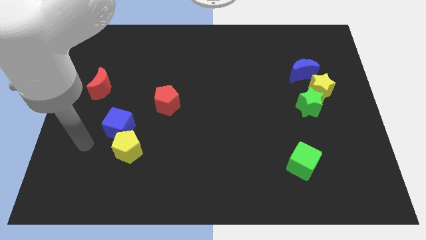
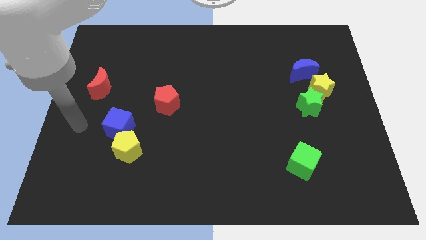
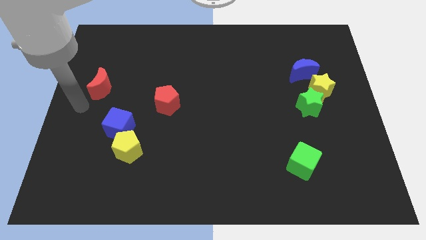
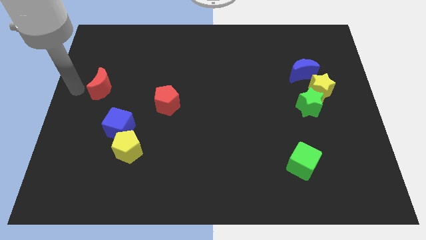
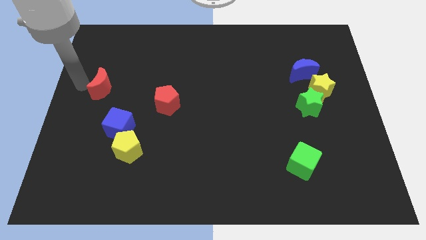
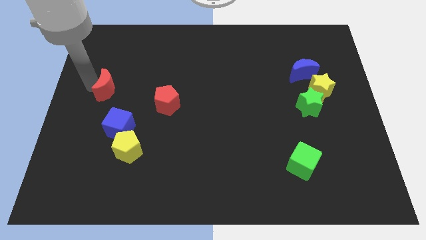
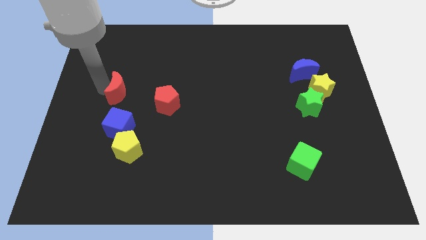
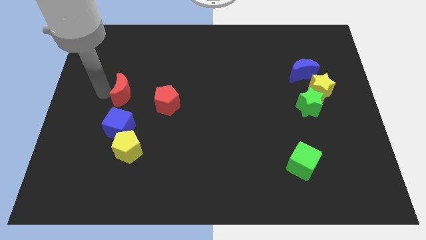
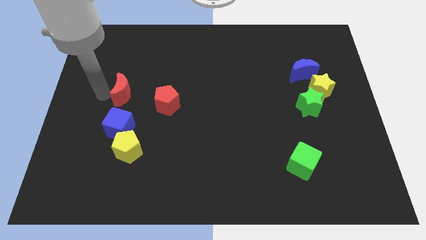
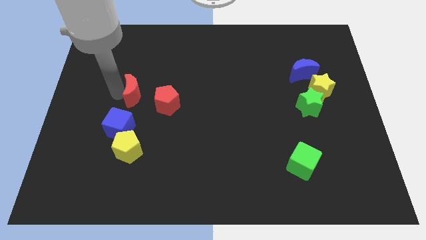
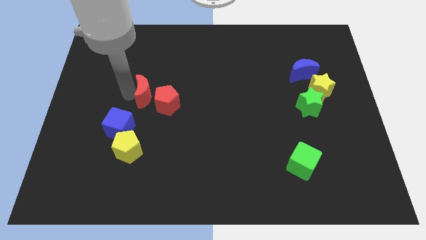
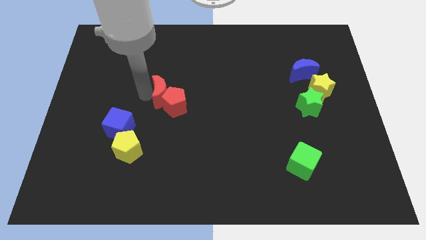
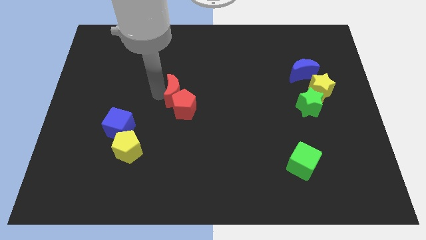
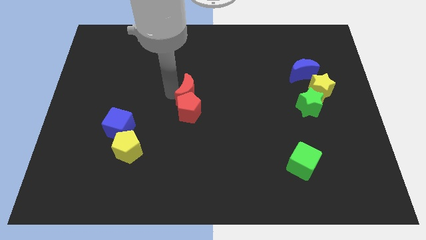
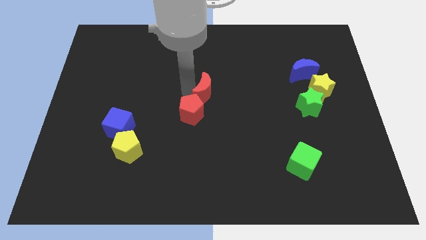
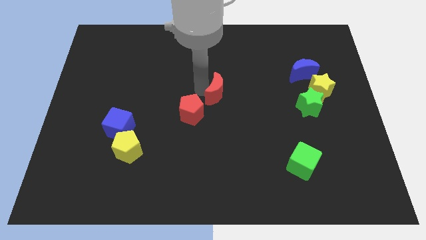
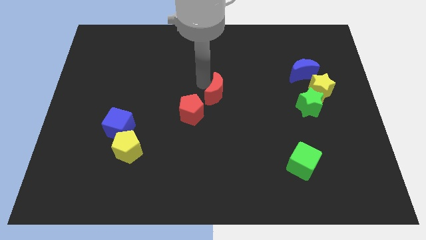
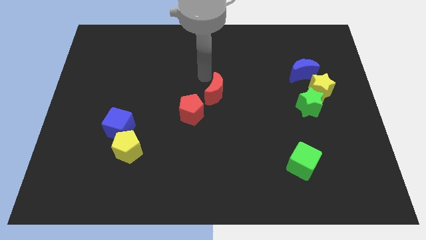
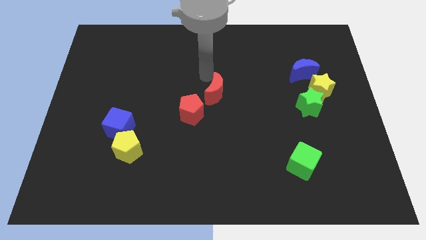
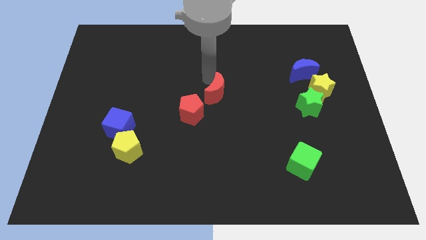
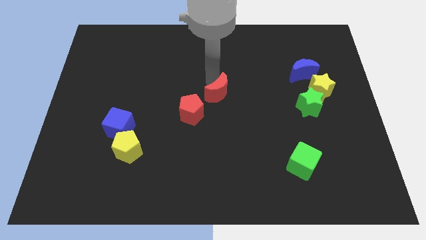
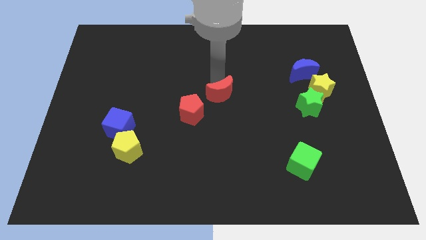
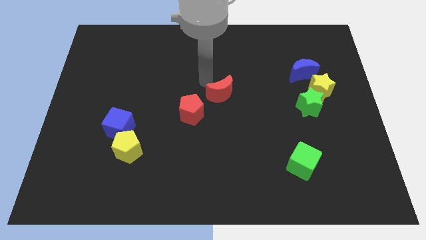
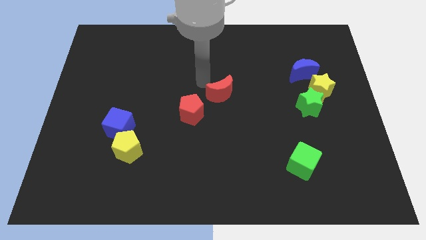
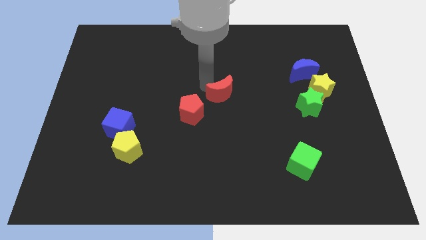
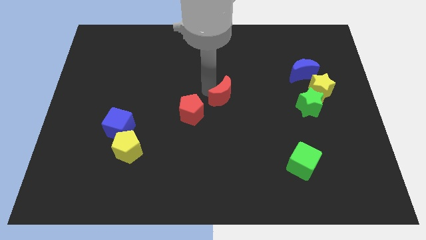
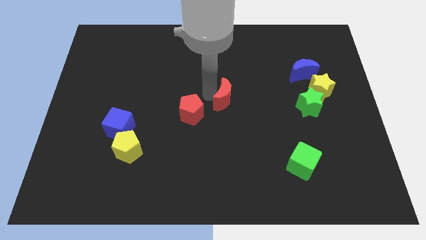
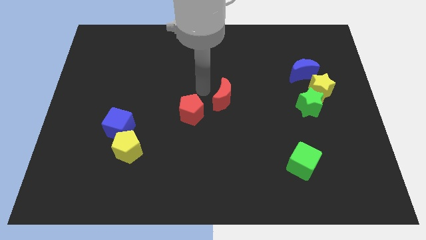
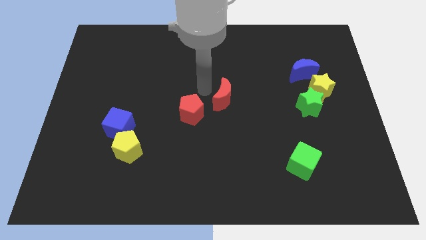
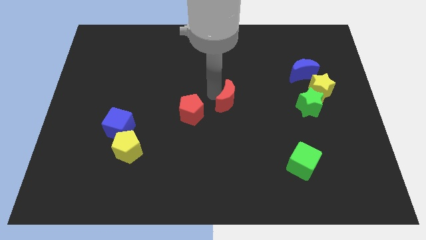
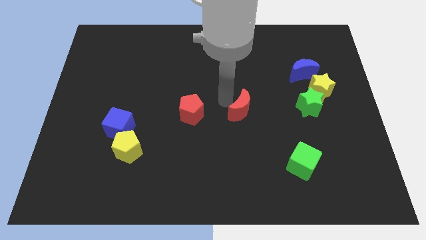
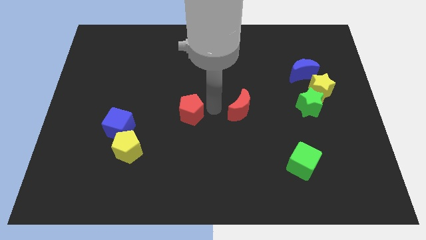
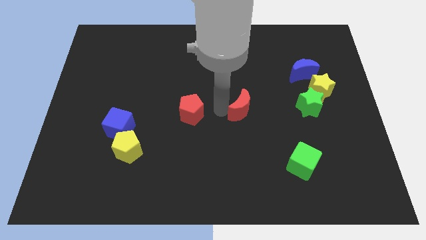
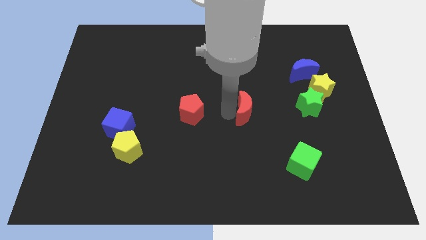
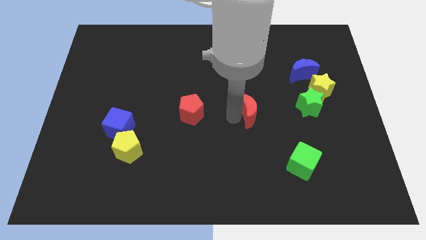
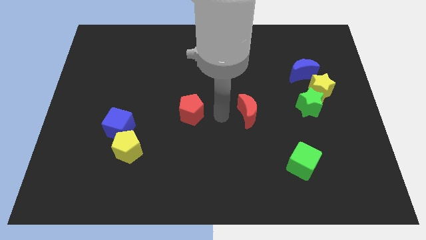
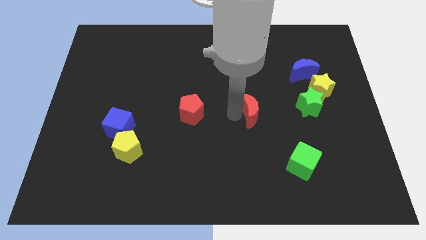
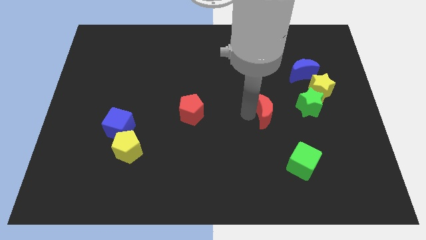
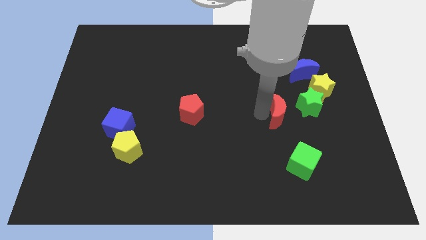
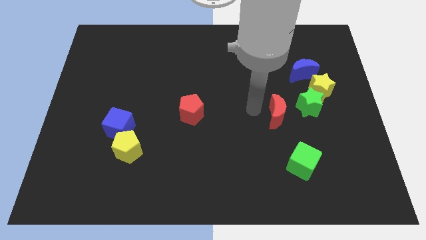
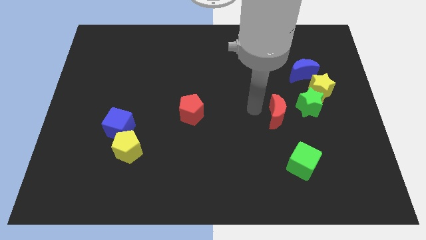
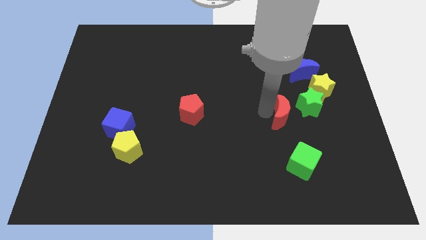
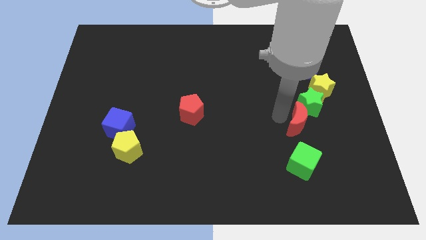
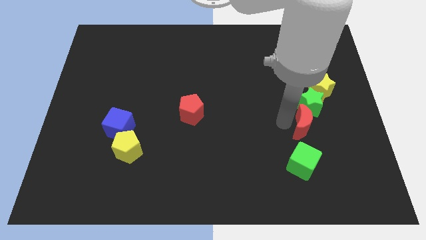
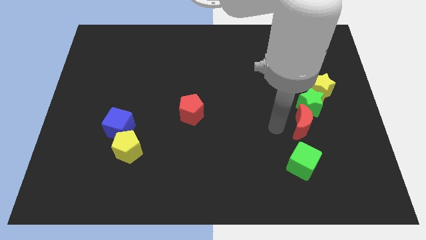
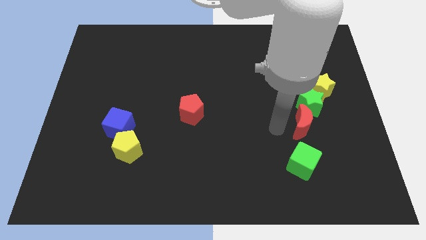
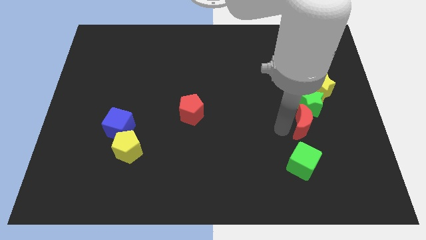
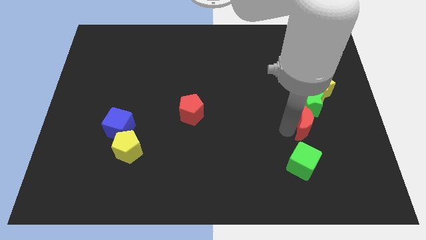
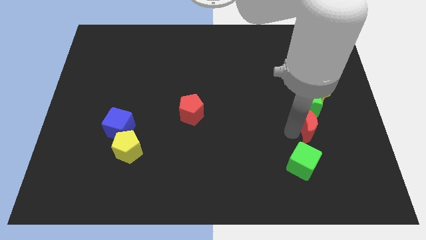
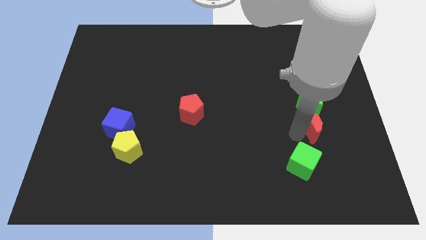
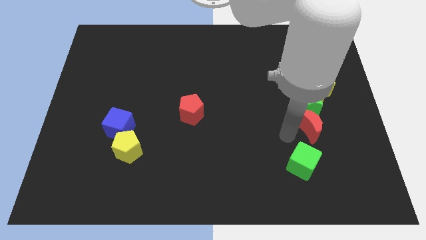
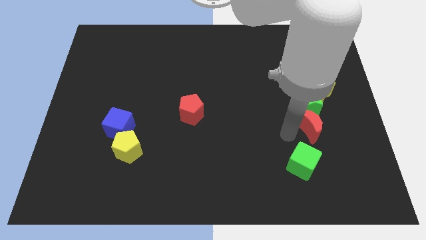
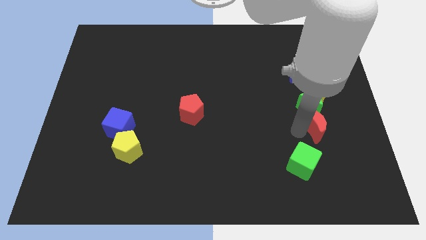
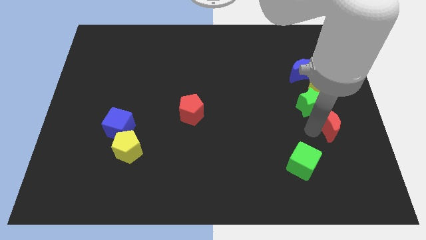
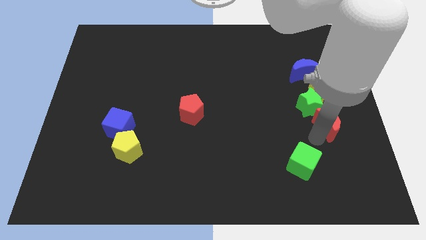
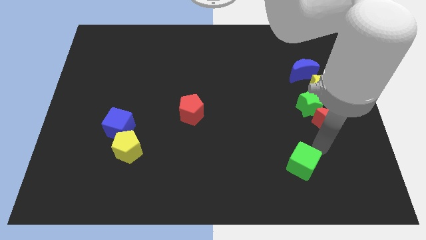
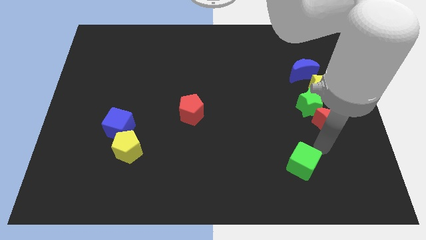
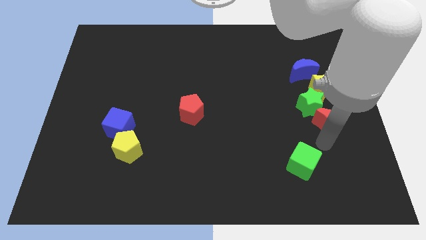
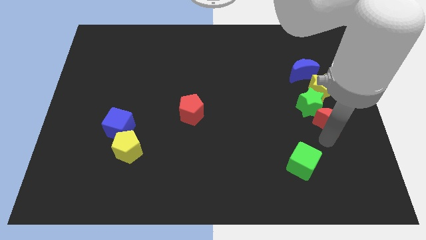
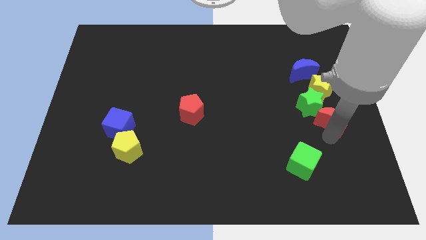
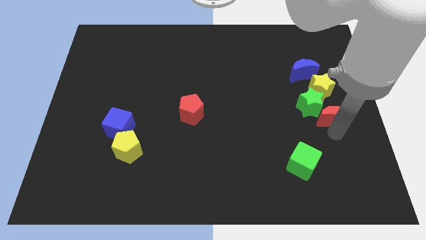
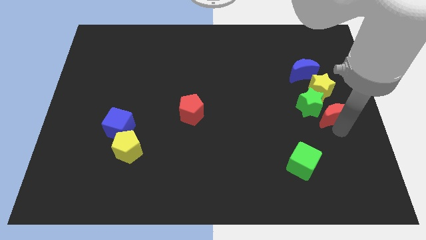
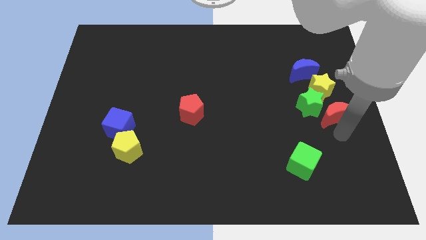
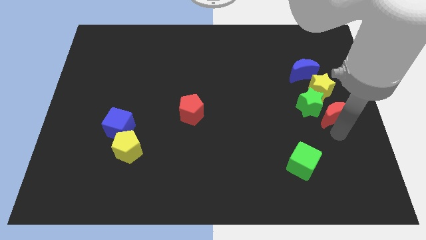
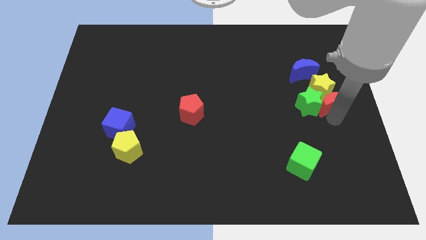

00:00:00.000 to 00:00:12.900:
put the red moon to the bottom right of the blue moon

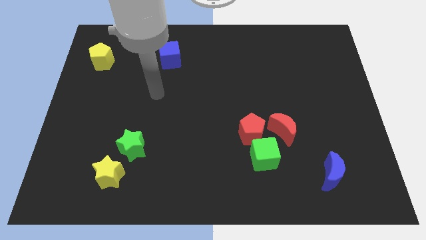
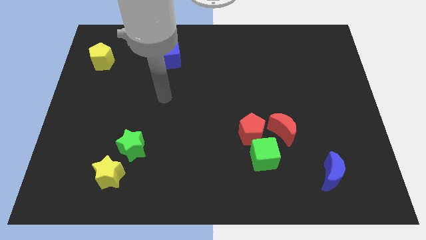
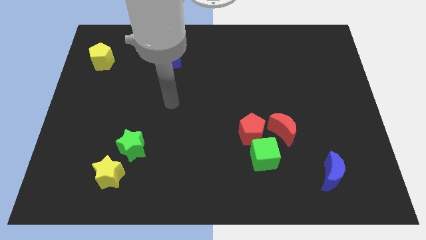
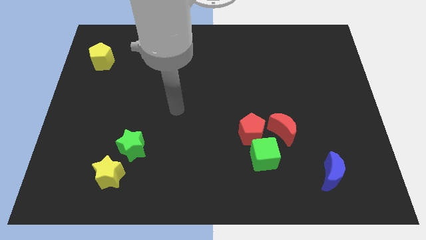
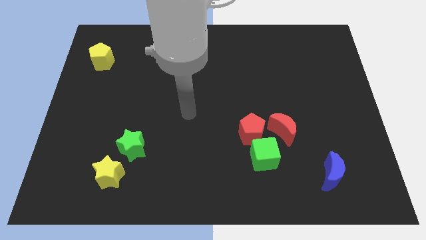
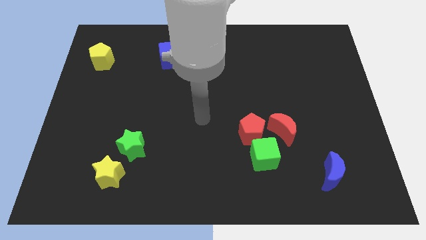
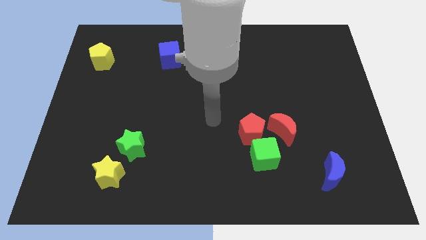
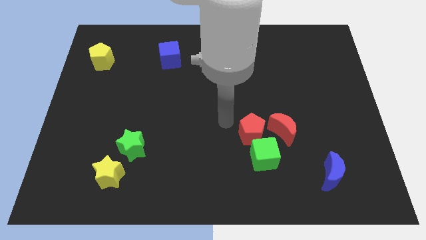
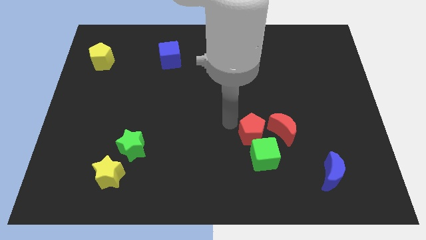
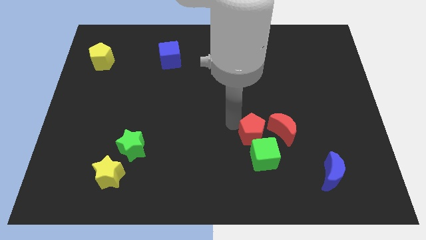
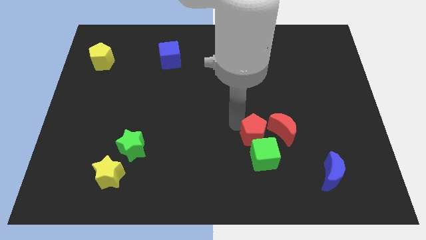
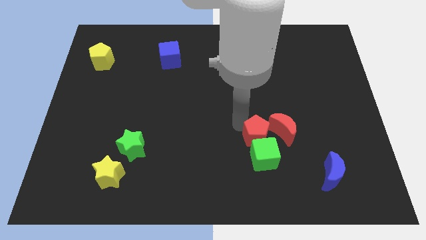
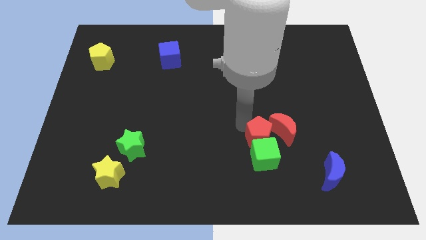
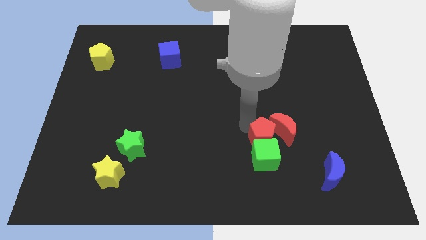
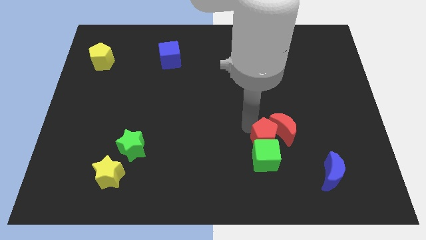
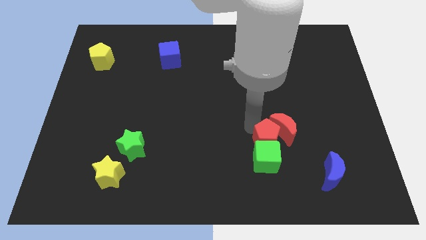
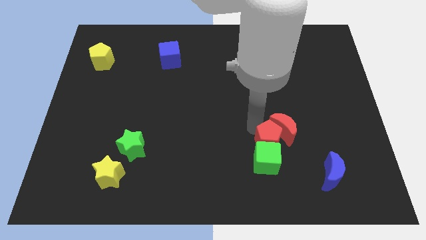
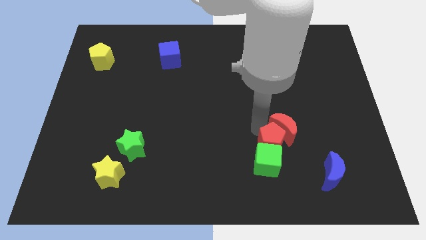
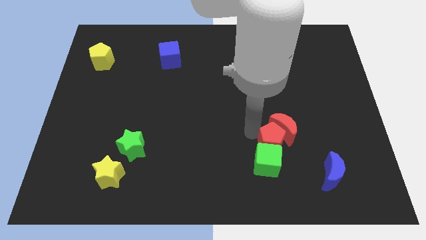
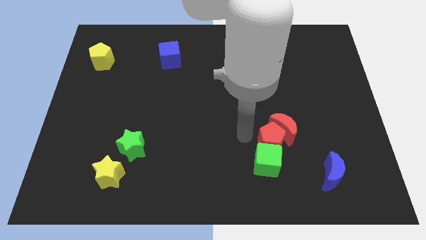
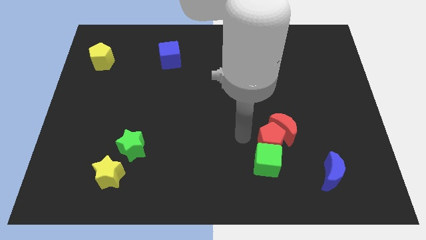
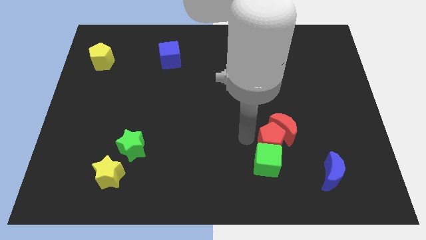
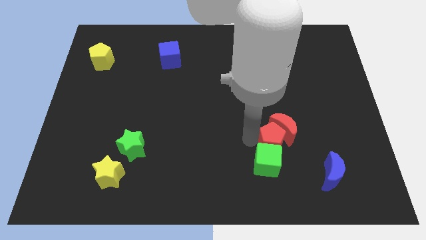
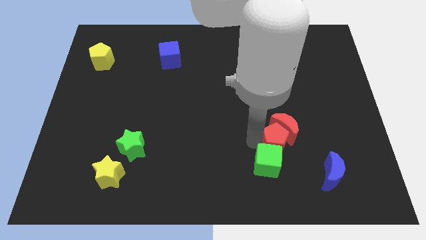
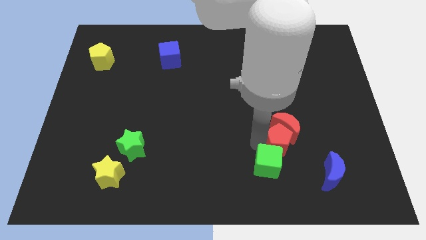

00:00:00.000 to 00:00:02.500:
move the red pentagon diagonally down and to the right of the red moon
